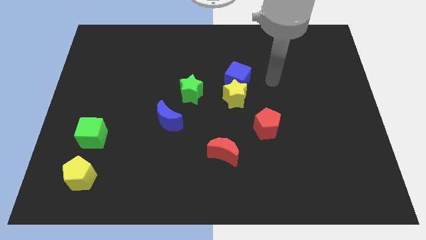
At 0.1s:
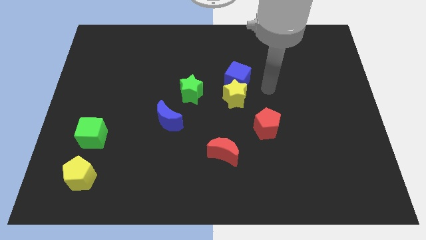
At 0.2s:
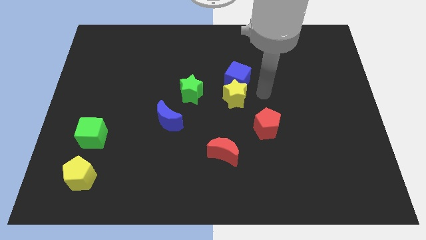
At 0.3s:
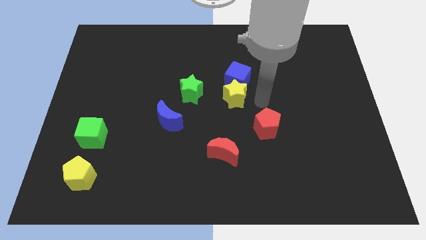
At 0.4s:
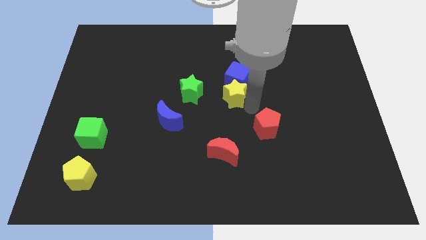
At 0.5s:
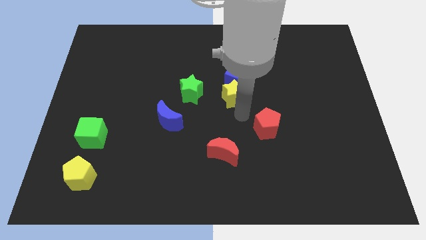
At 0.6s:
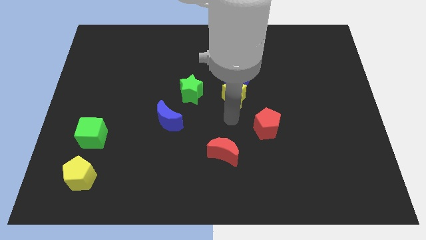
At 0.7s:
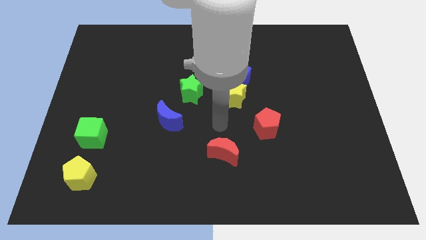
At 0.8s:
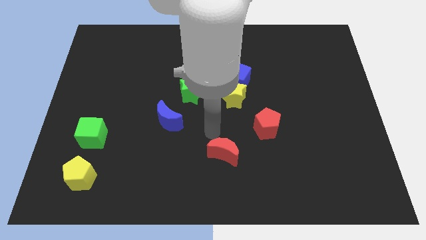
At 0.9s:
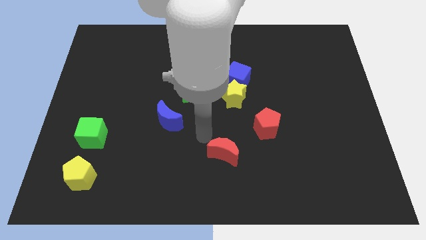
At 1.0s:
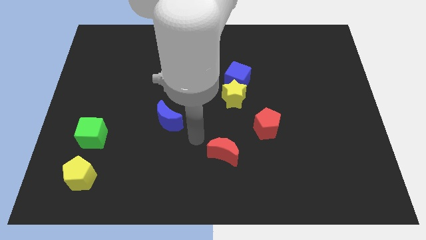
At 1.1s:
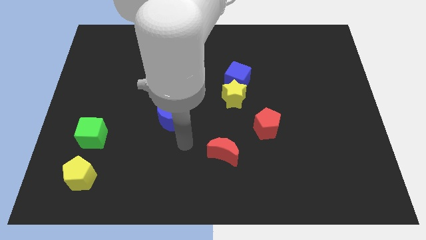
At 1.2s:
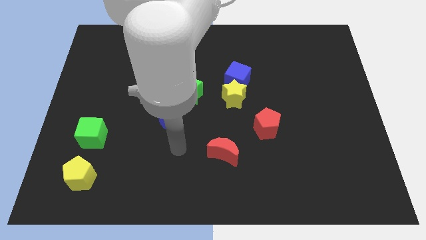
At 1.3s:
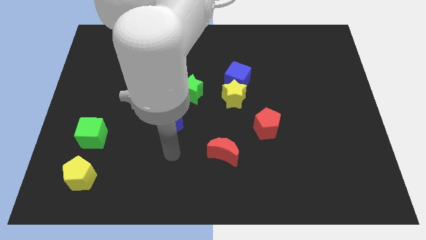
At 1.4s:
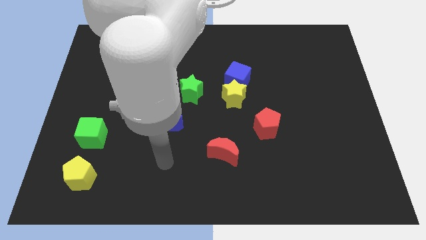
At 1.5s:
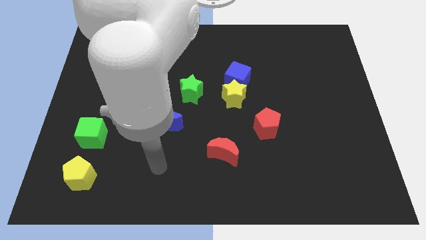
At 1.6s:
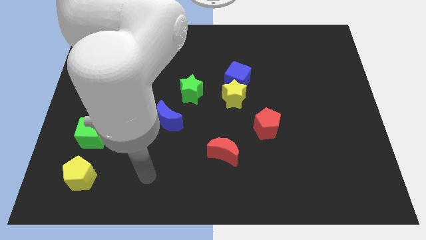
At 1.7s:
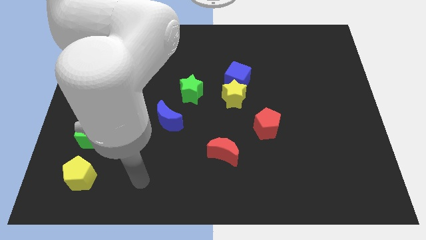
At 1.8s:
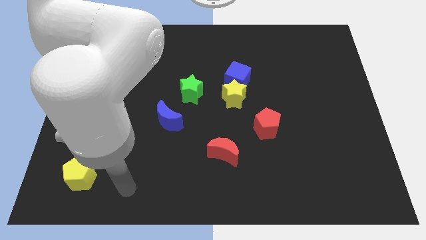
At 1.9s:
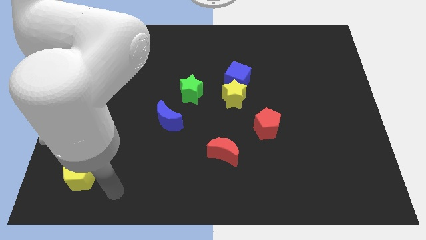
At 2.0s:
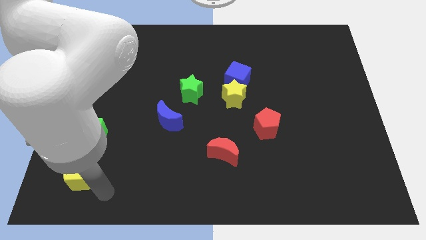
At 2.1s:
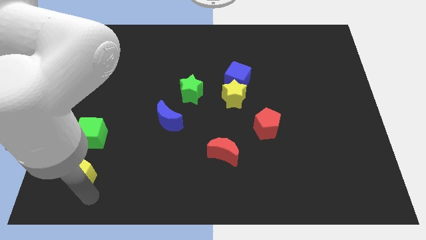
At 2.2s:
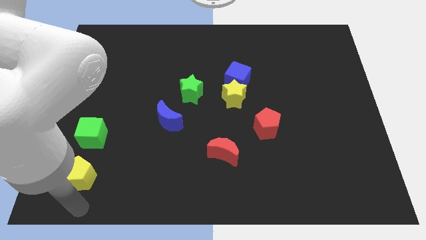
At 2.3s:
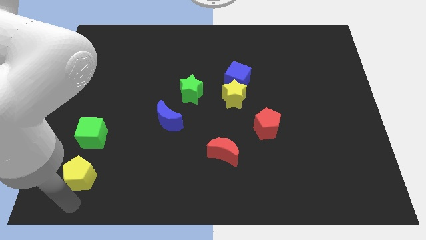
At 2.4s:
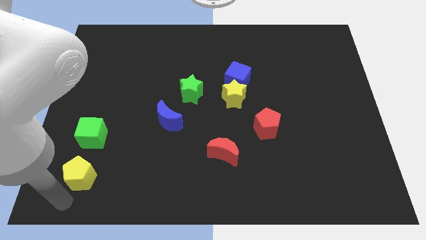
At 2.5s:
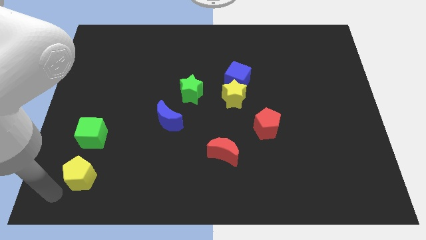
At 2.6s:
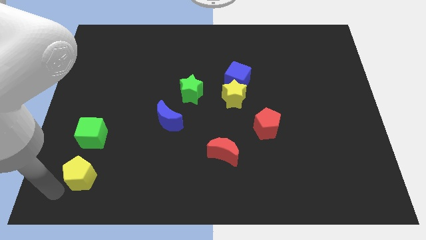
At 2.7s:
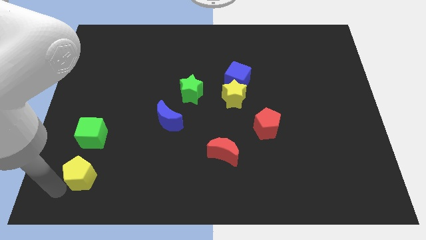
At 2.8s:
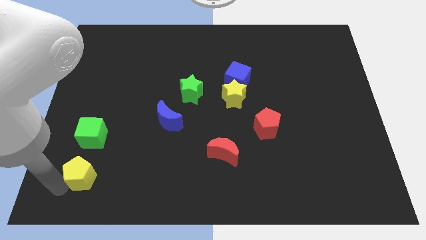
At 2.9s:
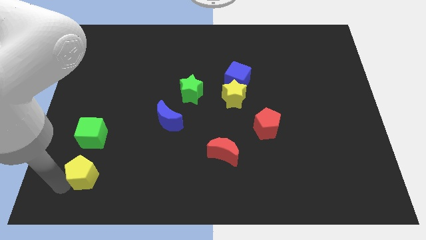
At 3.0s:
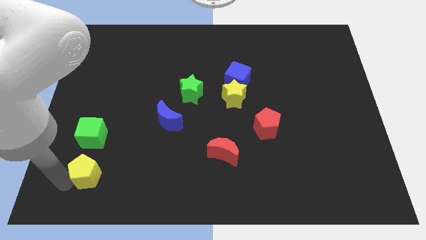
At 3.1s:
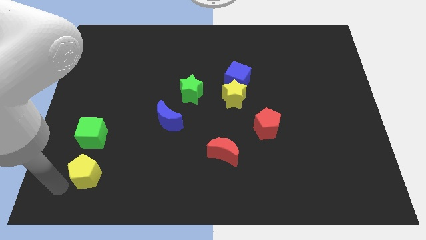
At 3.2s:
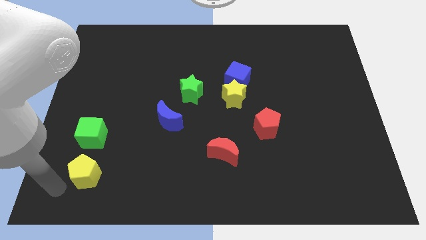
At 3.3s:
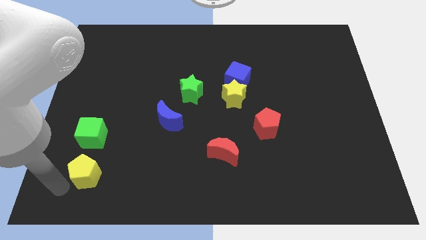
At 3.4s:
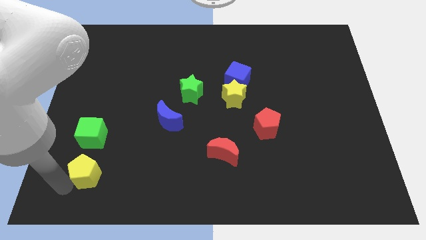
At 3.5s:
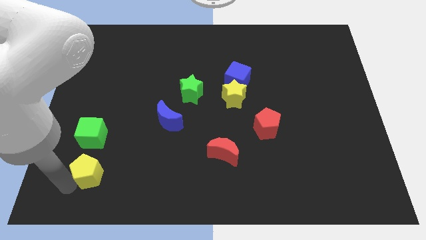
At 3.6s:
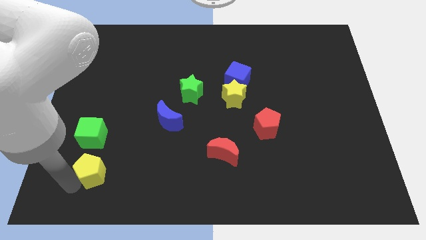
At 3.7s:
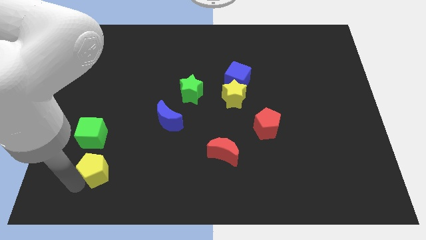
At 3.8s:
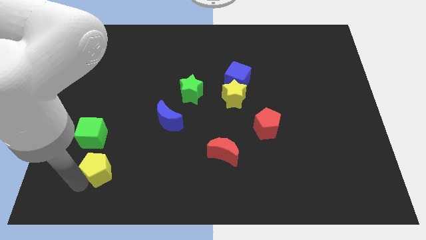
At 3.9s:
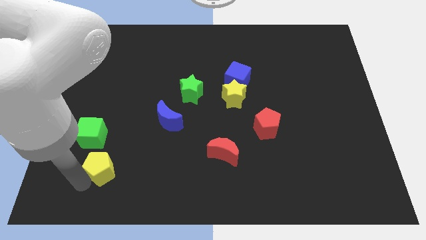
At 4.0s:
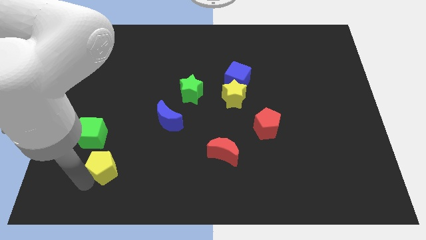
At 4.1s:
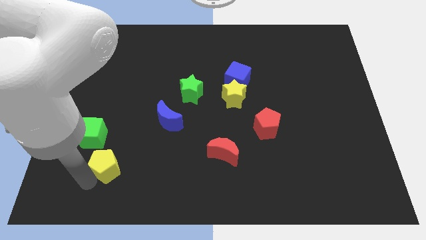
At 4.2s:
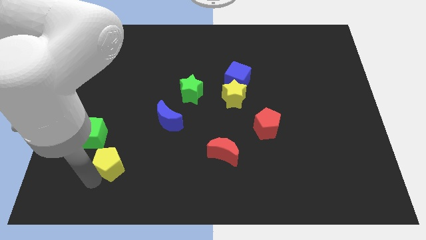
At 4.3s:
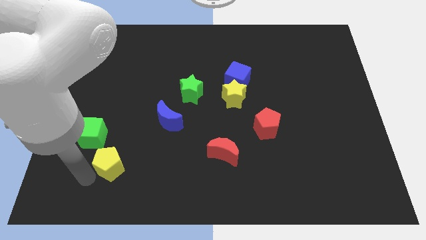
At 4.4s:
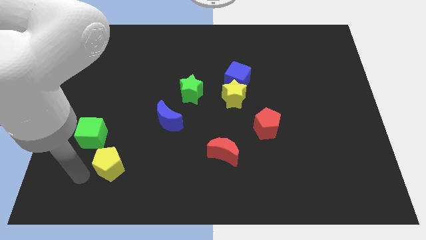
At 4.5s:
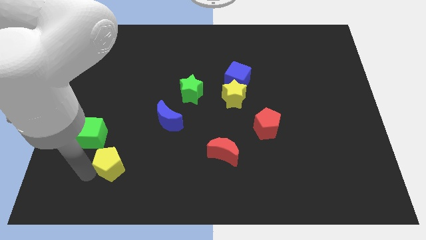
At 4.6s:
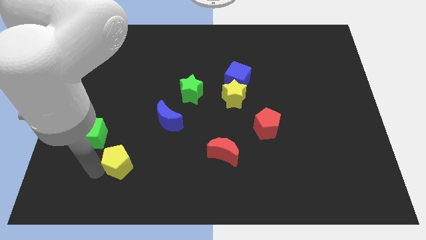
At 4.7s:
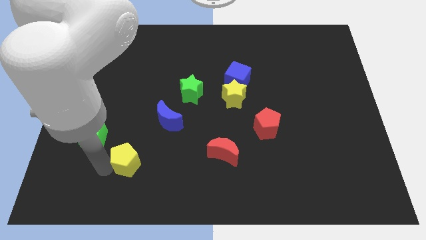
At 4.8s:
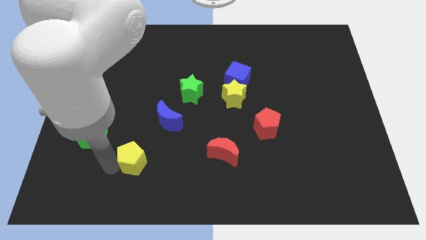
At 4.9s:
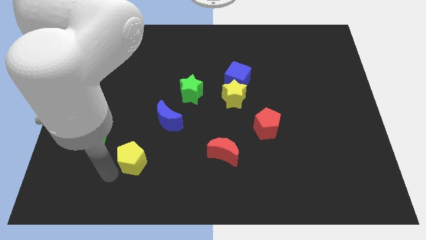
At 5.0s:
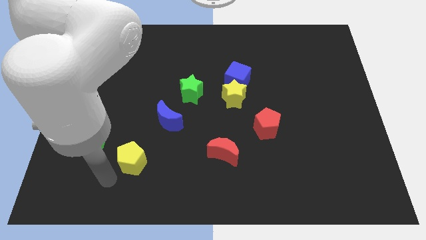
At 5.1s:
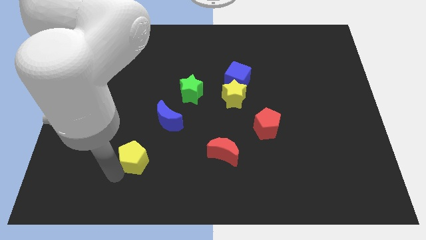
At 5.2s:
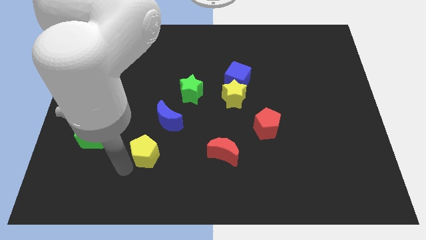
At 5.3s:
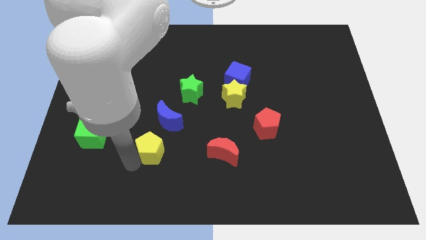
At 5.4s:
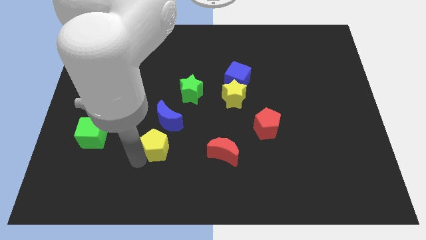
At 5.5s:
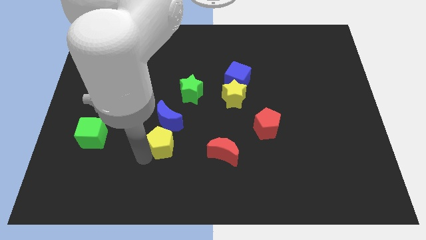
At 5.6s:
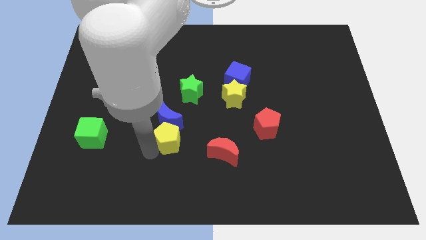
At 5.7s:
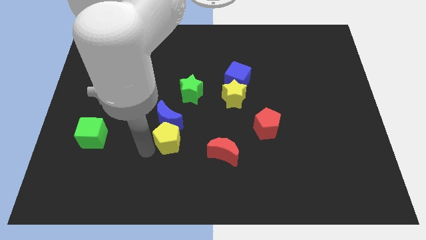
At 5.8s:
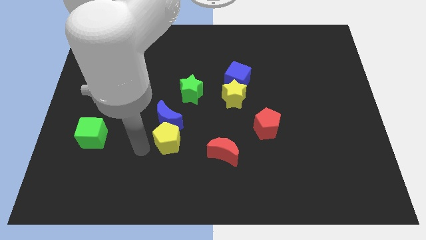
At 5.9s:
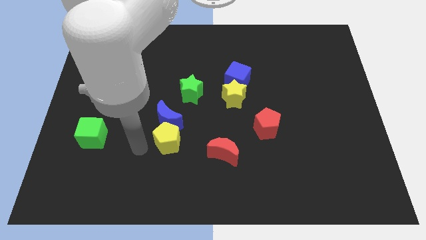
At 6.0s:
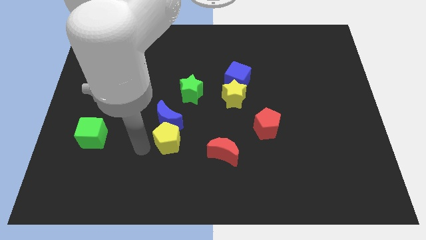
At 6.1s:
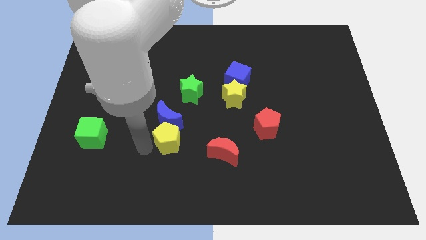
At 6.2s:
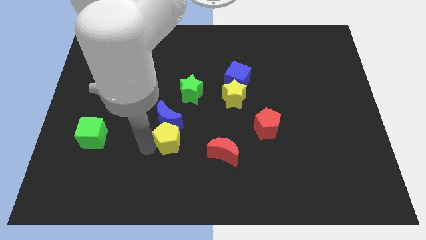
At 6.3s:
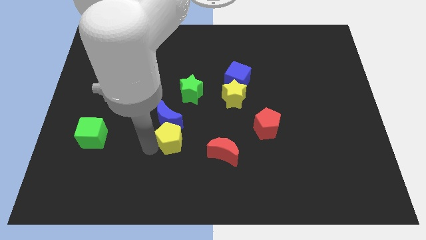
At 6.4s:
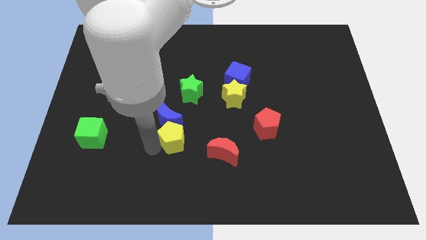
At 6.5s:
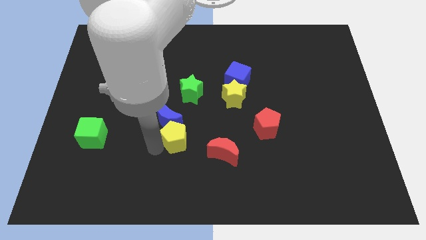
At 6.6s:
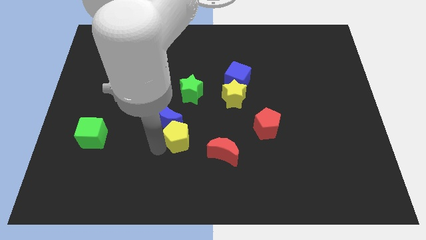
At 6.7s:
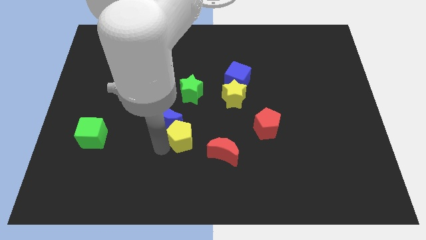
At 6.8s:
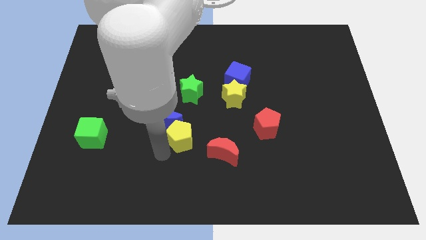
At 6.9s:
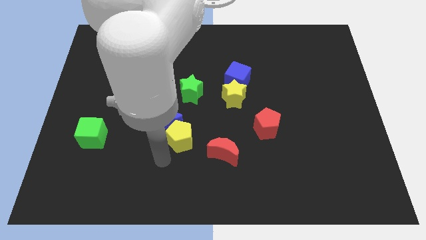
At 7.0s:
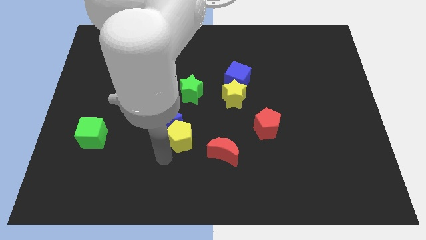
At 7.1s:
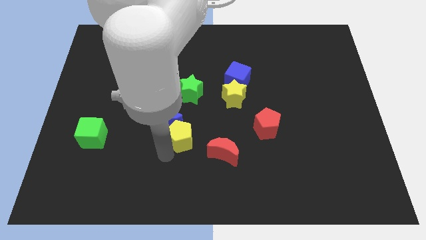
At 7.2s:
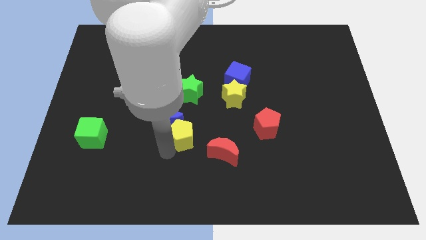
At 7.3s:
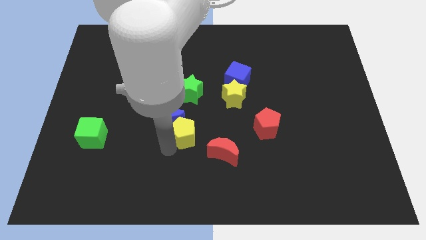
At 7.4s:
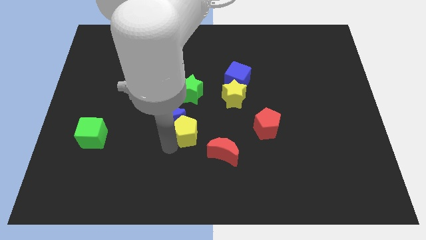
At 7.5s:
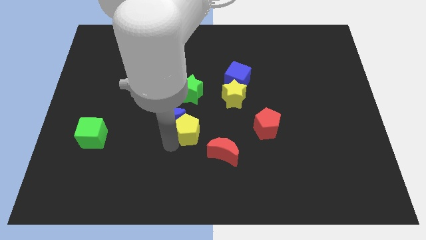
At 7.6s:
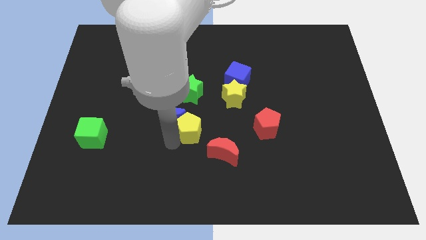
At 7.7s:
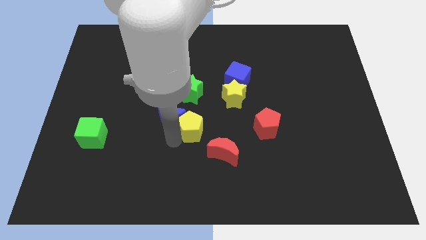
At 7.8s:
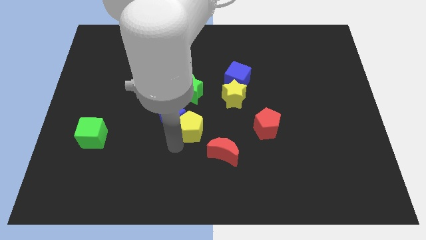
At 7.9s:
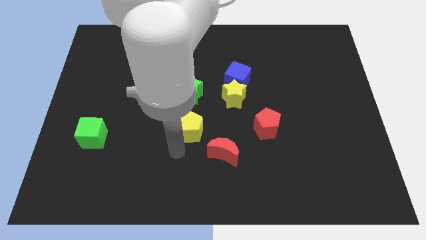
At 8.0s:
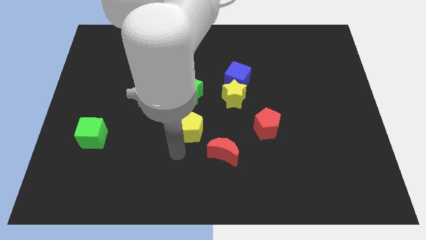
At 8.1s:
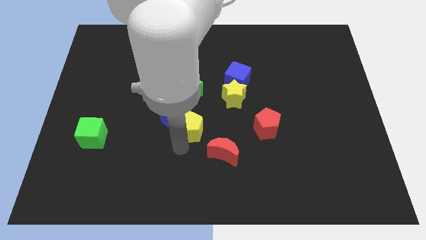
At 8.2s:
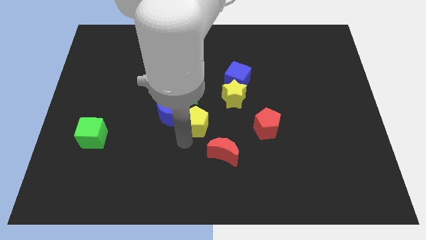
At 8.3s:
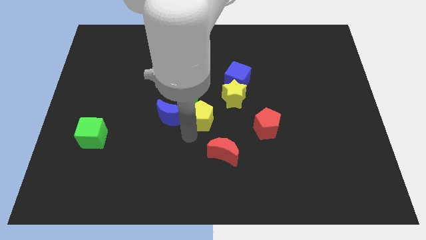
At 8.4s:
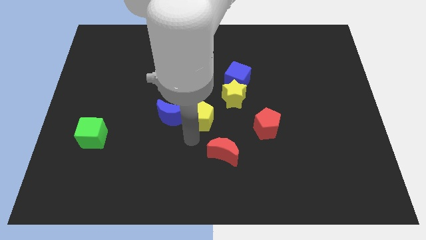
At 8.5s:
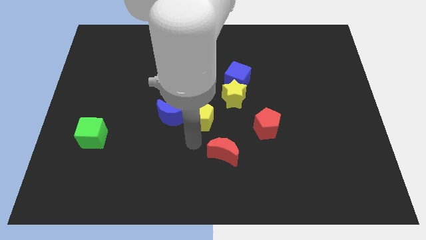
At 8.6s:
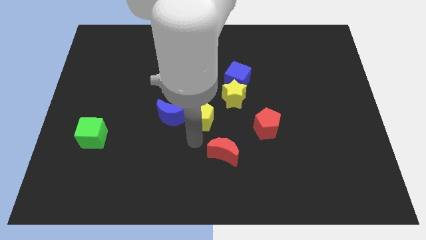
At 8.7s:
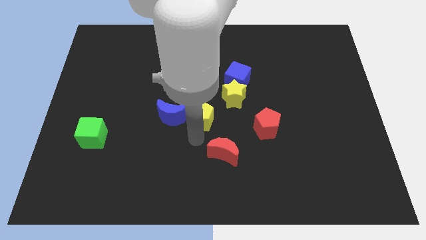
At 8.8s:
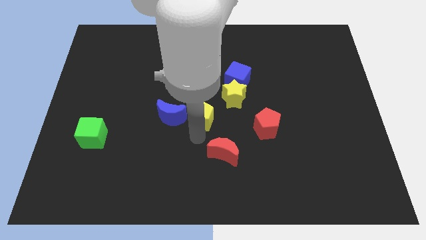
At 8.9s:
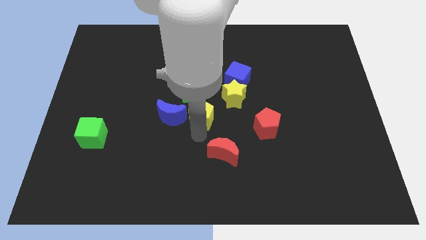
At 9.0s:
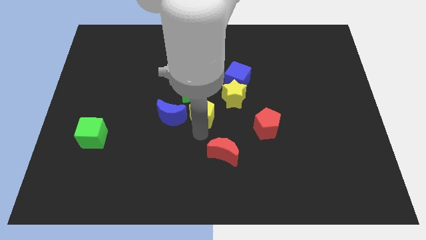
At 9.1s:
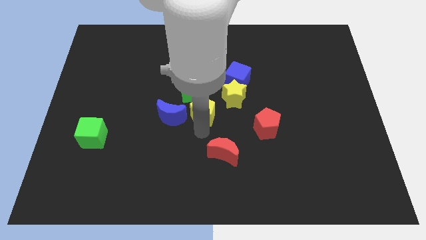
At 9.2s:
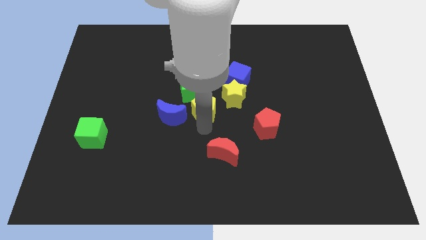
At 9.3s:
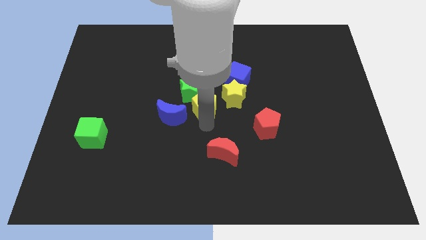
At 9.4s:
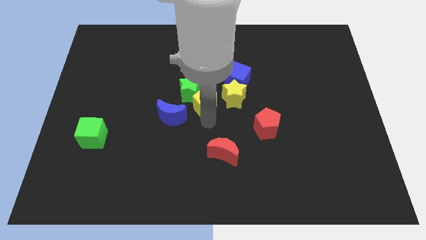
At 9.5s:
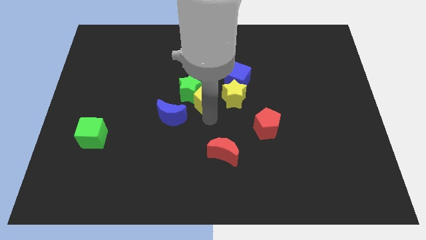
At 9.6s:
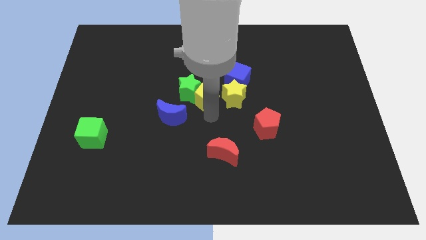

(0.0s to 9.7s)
put the yellow pentagon to the top left side of the yellow star
